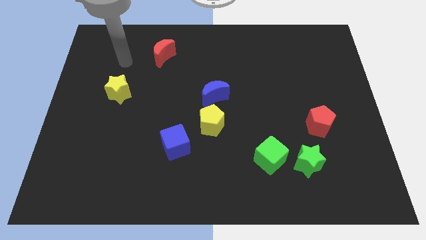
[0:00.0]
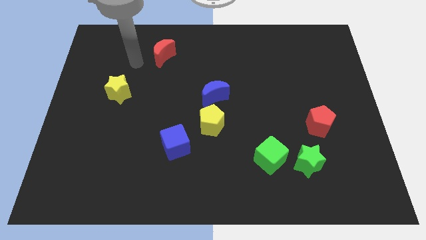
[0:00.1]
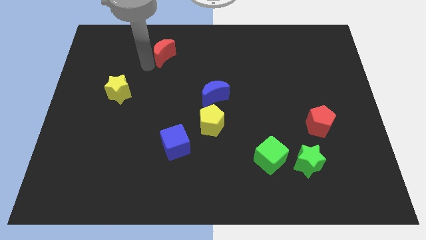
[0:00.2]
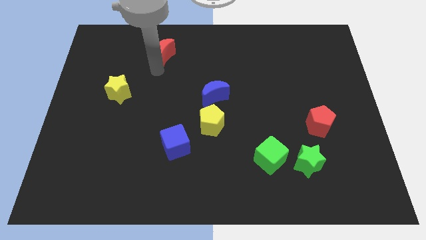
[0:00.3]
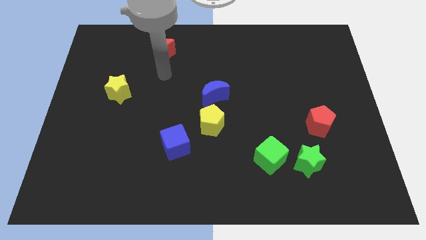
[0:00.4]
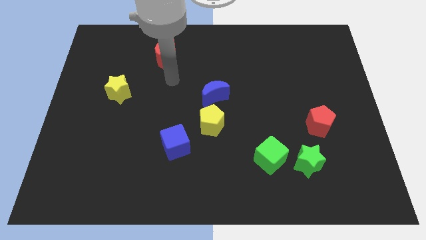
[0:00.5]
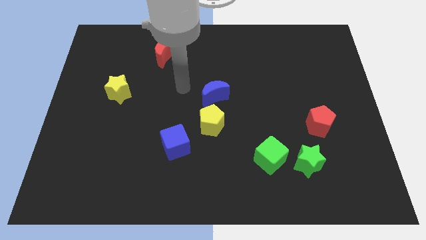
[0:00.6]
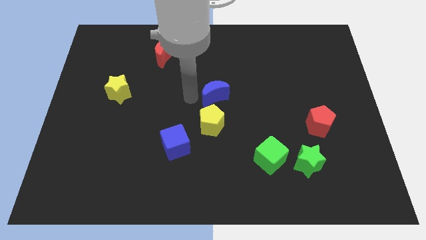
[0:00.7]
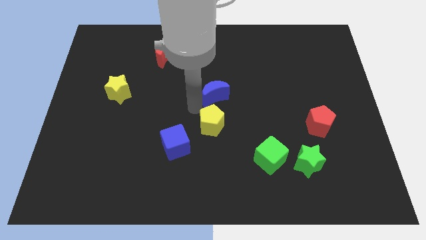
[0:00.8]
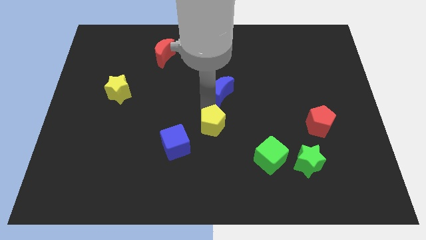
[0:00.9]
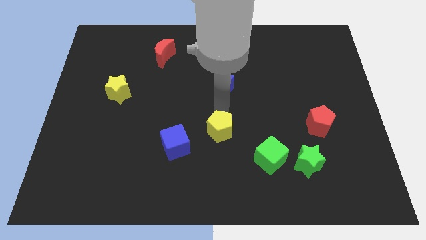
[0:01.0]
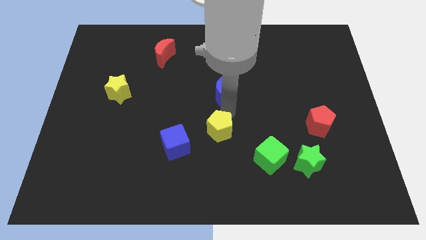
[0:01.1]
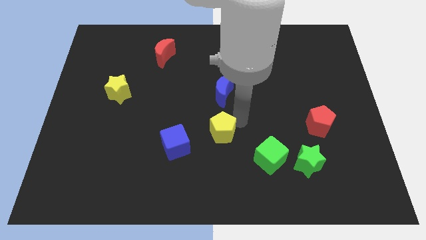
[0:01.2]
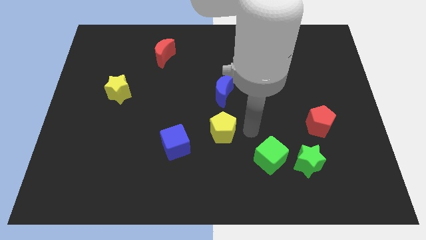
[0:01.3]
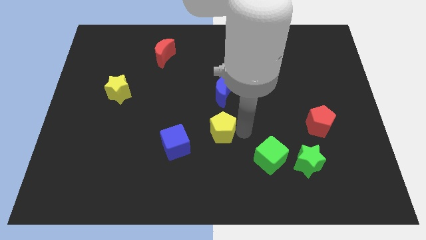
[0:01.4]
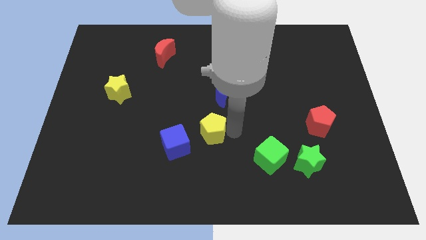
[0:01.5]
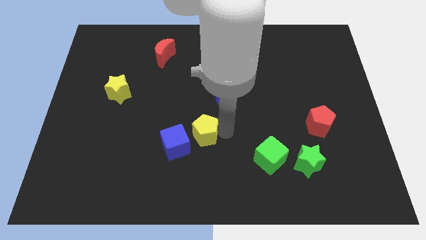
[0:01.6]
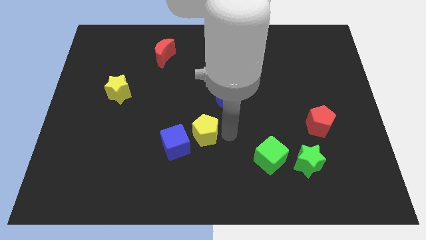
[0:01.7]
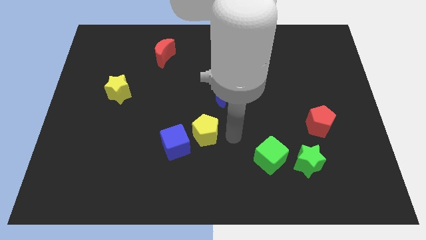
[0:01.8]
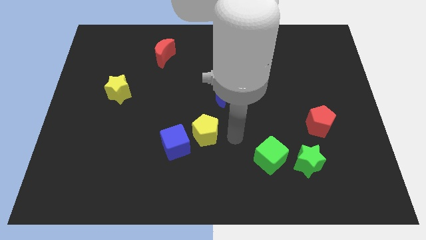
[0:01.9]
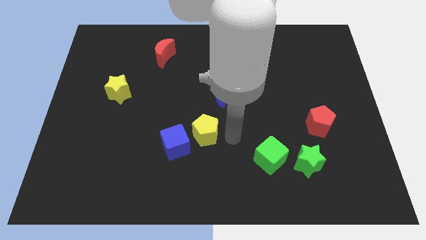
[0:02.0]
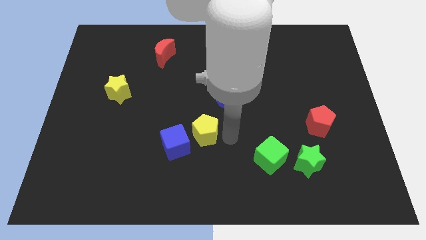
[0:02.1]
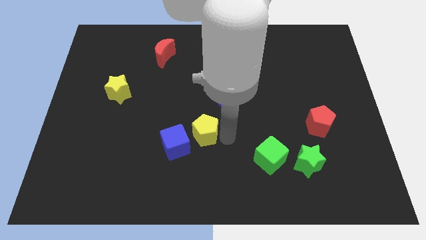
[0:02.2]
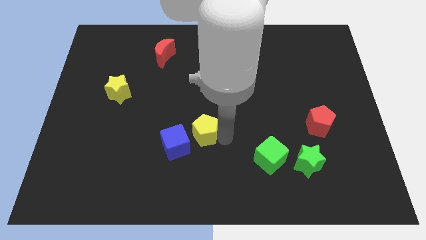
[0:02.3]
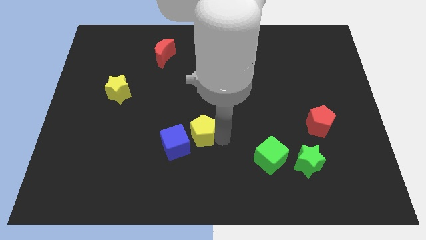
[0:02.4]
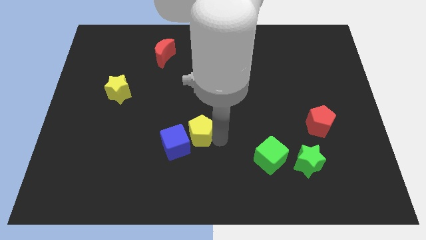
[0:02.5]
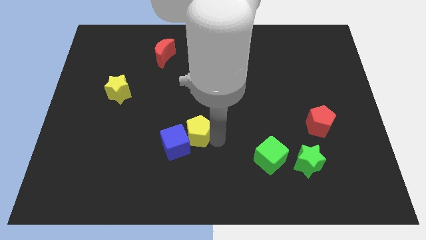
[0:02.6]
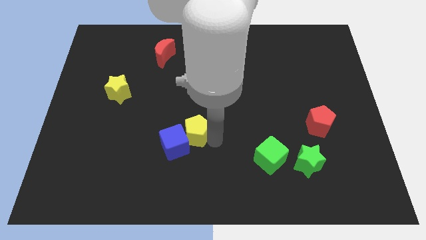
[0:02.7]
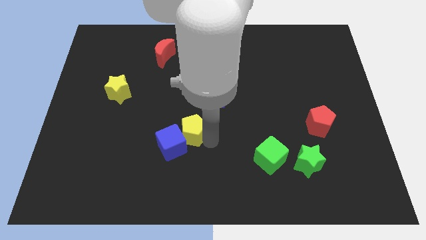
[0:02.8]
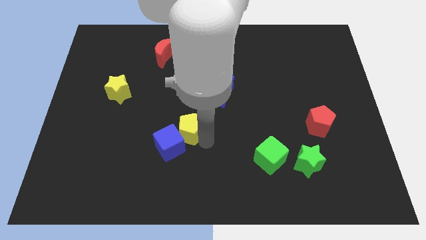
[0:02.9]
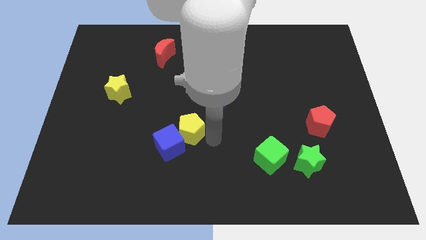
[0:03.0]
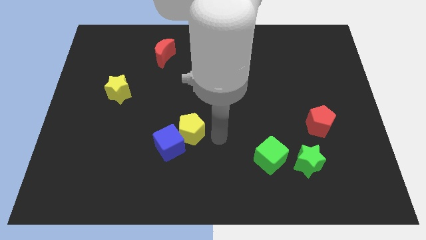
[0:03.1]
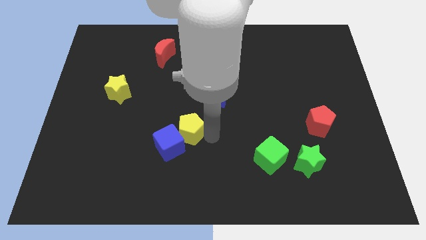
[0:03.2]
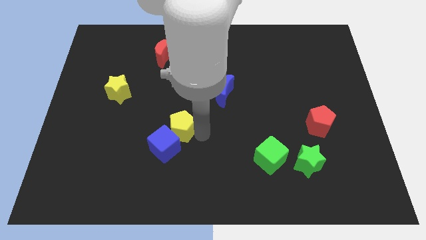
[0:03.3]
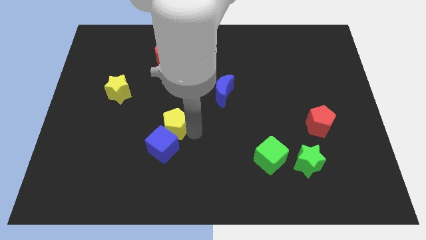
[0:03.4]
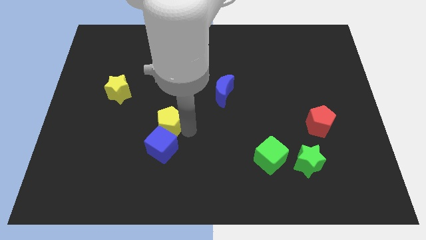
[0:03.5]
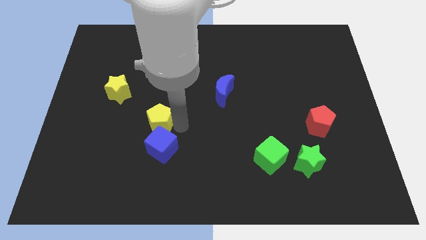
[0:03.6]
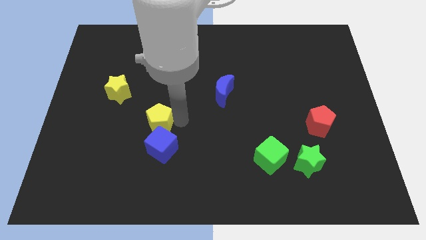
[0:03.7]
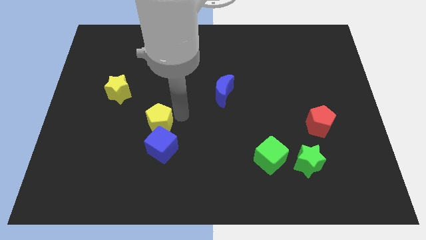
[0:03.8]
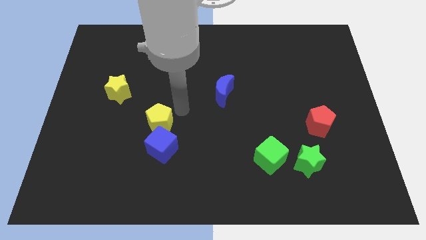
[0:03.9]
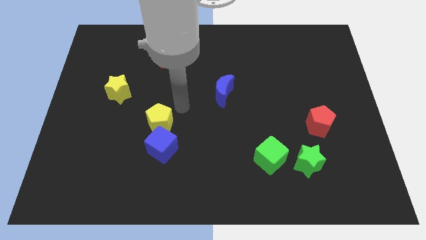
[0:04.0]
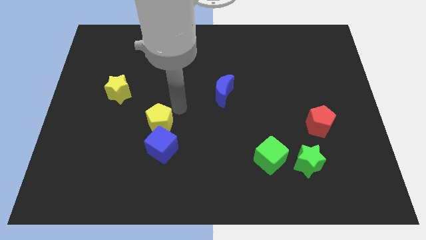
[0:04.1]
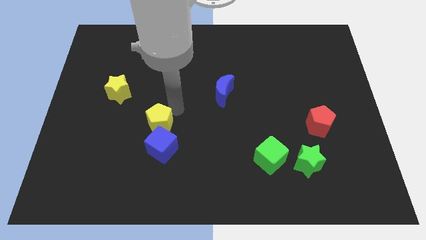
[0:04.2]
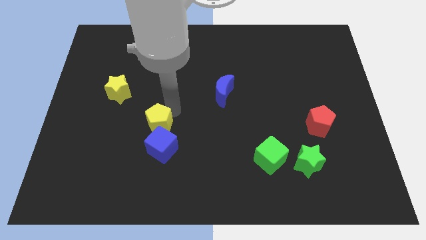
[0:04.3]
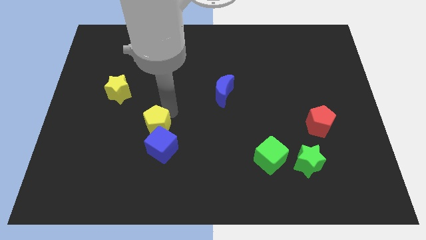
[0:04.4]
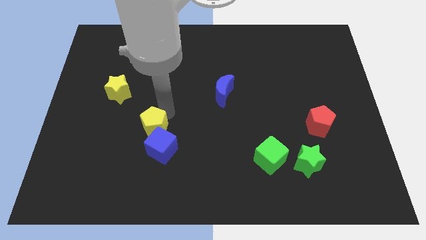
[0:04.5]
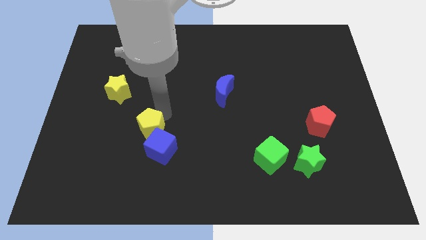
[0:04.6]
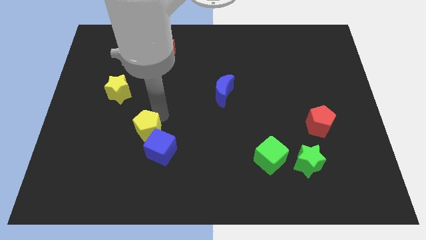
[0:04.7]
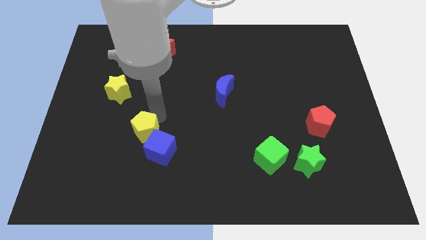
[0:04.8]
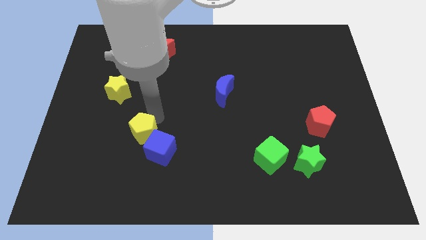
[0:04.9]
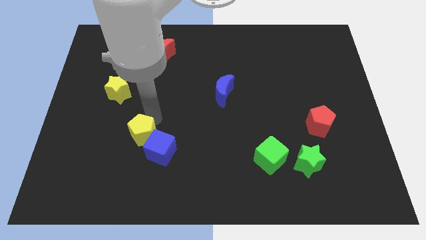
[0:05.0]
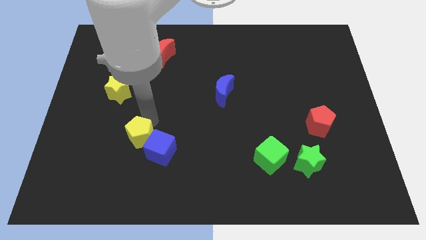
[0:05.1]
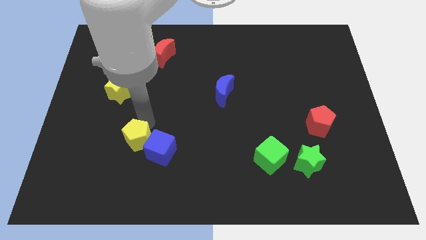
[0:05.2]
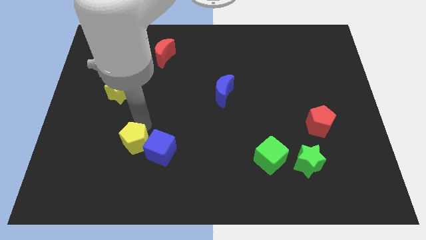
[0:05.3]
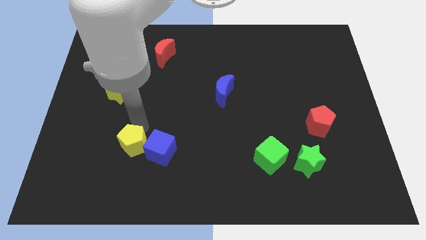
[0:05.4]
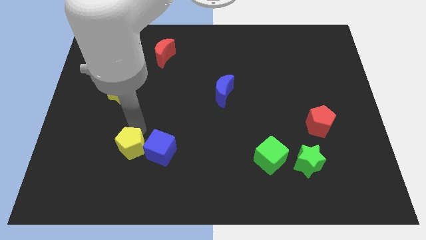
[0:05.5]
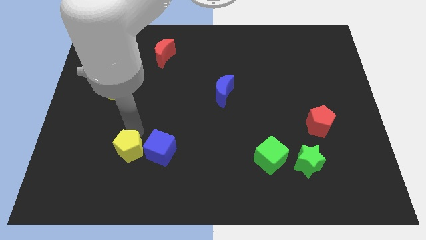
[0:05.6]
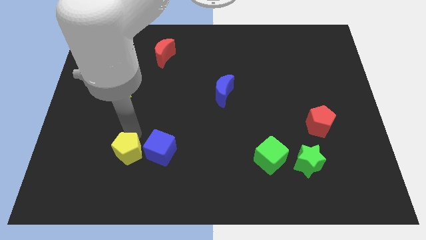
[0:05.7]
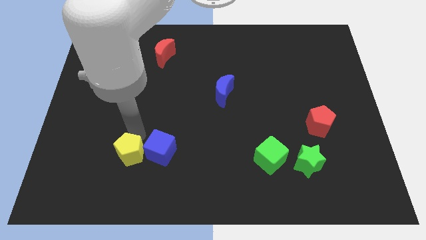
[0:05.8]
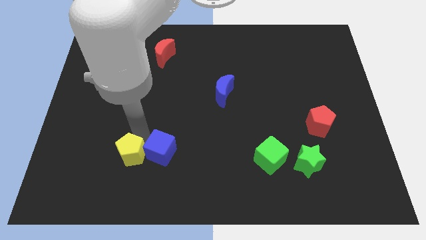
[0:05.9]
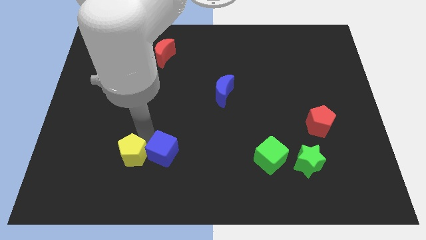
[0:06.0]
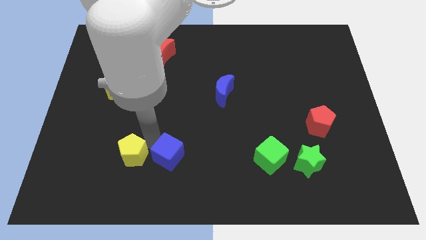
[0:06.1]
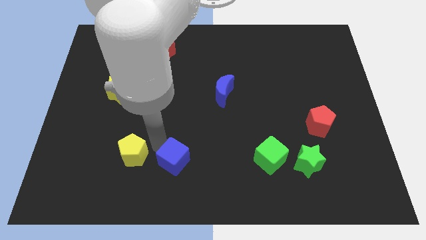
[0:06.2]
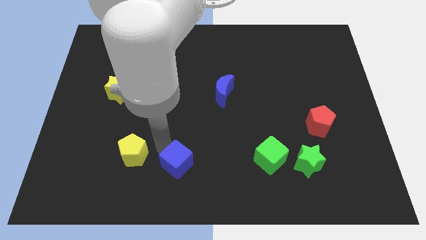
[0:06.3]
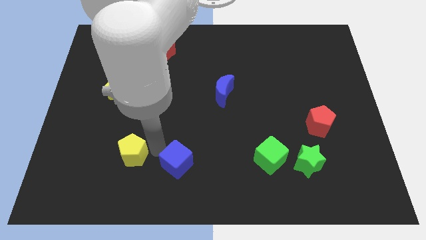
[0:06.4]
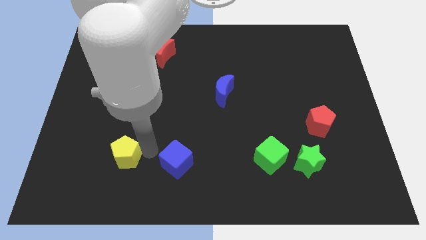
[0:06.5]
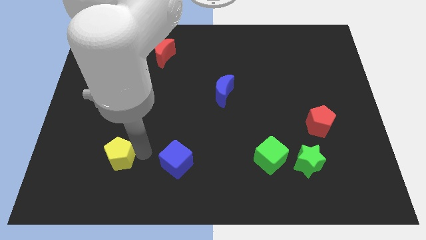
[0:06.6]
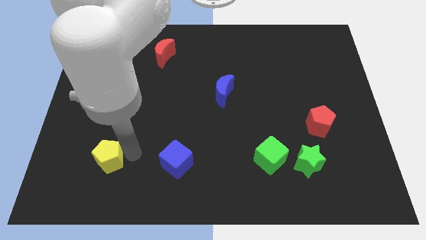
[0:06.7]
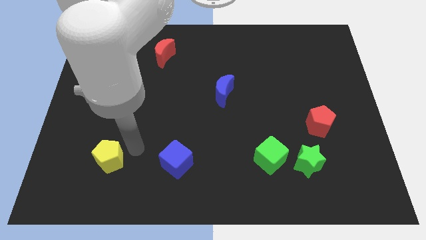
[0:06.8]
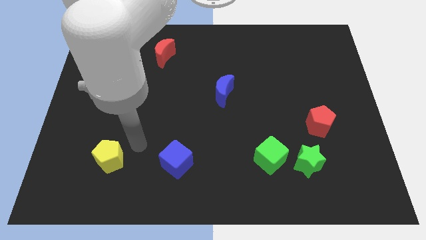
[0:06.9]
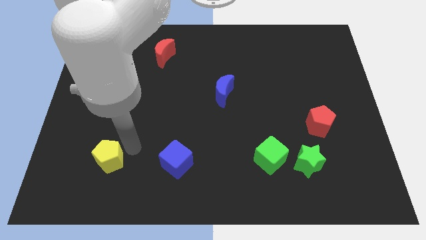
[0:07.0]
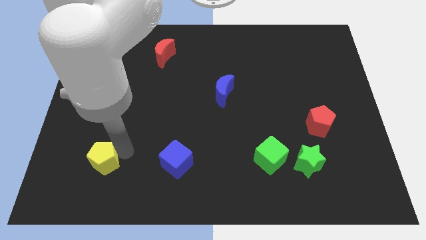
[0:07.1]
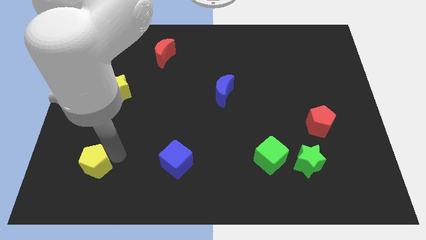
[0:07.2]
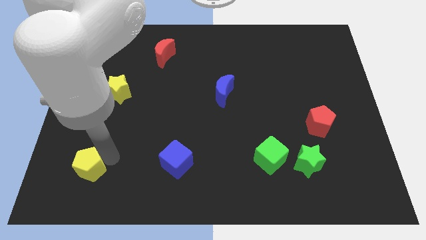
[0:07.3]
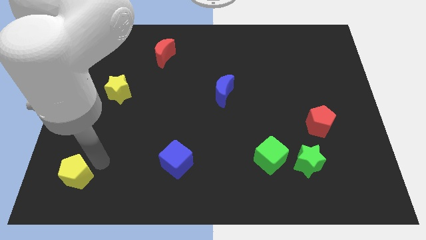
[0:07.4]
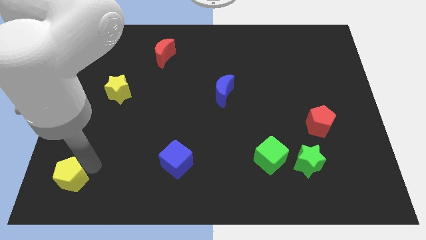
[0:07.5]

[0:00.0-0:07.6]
slide the yellow pentagon to the bottom left corner
